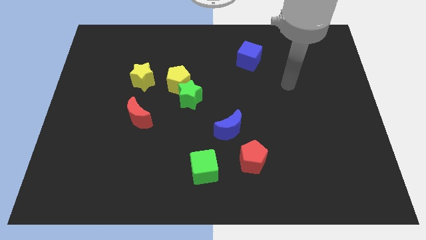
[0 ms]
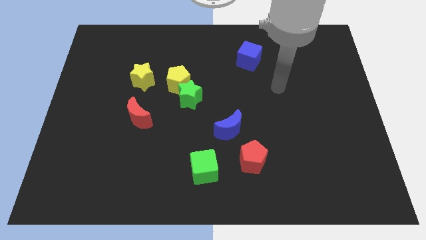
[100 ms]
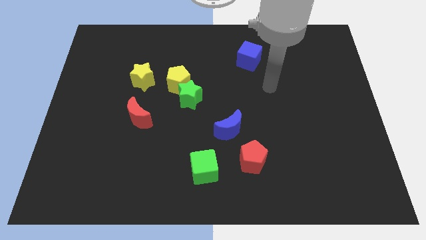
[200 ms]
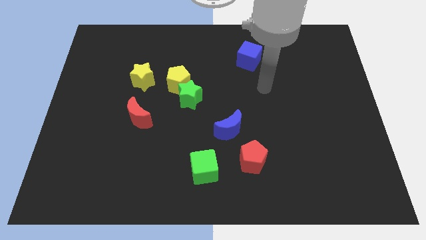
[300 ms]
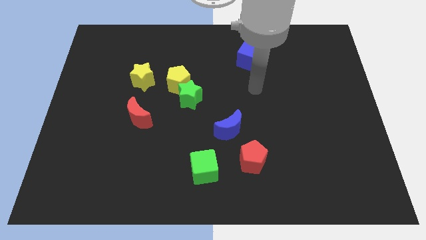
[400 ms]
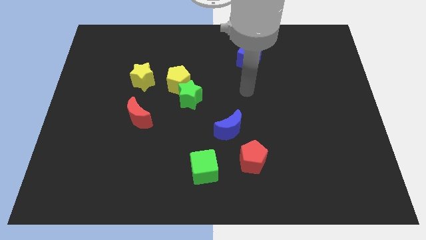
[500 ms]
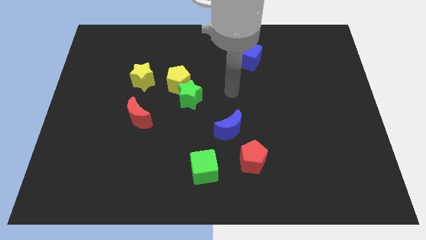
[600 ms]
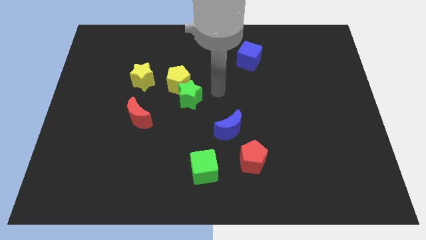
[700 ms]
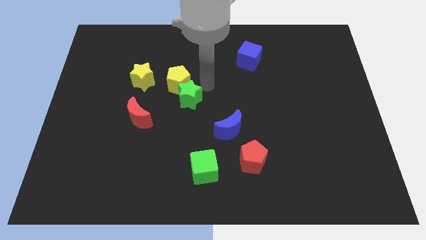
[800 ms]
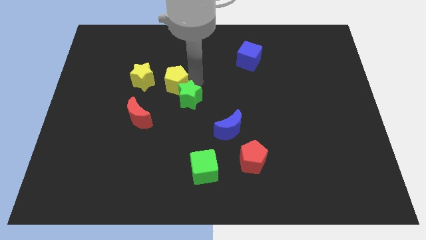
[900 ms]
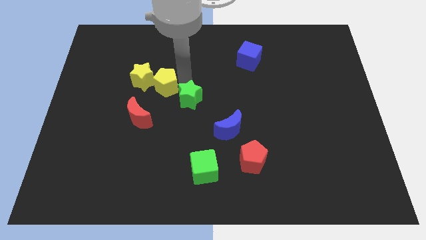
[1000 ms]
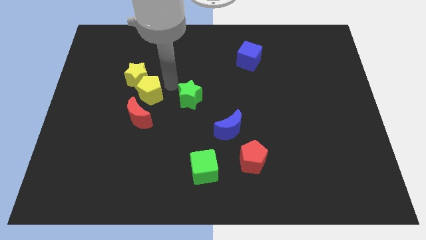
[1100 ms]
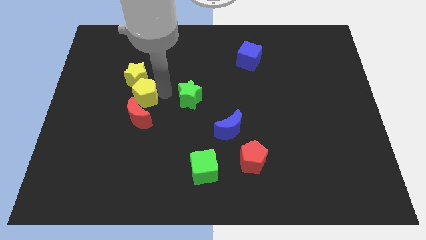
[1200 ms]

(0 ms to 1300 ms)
move the green star away from the yellow pentagon

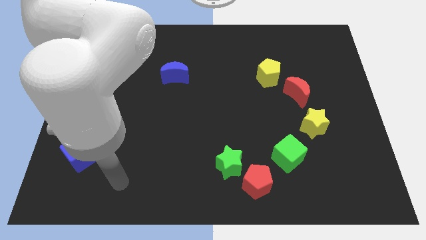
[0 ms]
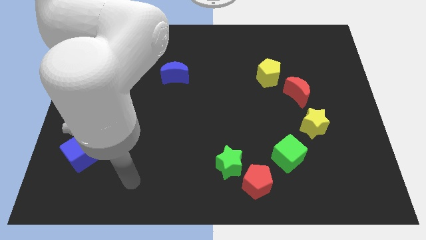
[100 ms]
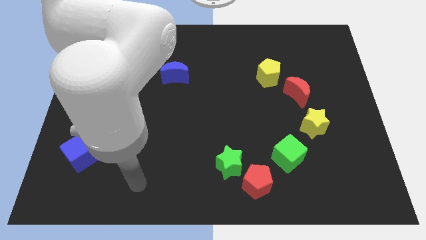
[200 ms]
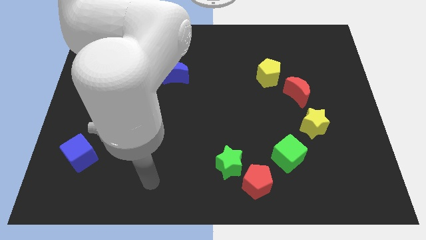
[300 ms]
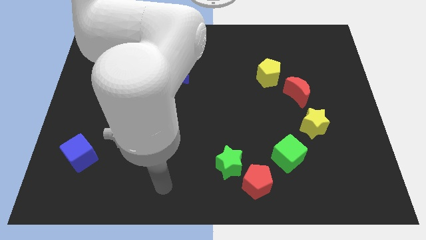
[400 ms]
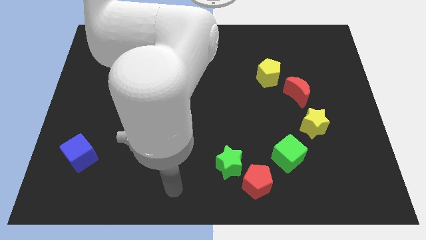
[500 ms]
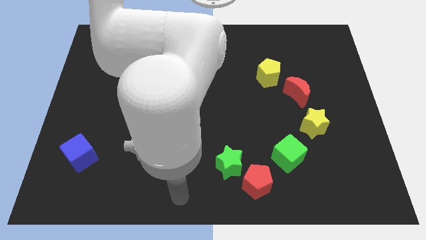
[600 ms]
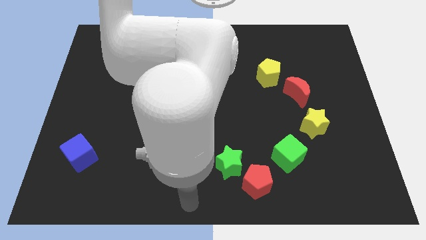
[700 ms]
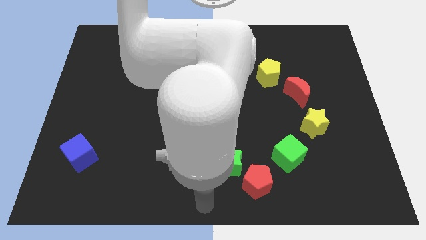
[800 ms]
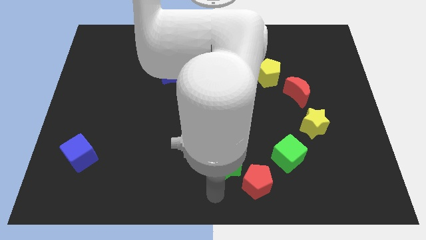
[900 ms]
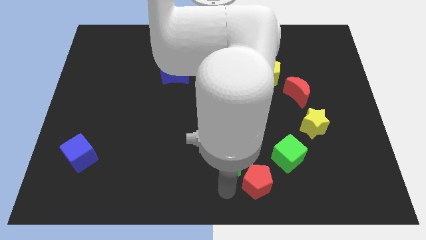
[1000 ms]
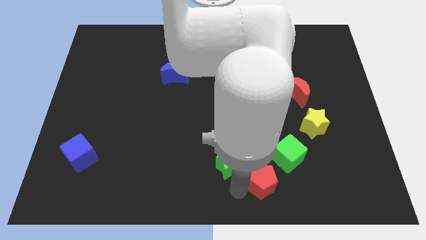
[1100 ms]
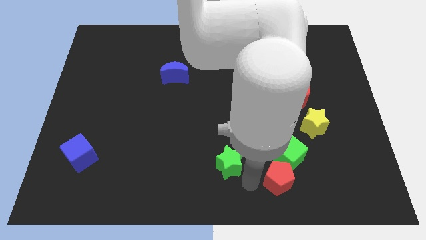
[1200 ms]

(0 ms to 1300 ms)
move the green star away from the red pentagon

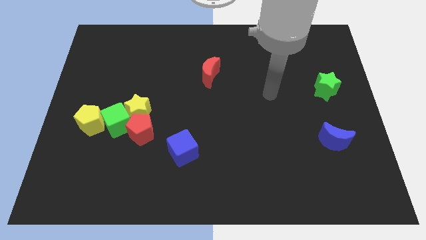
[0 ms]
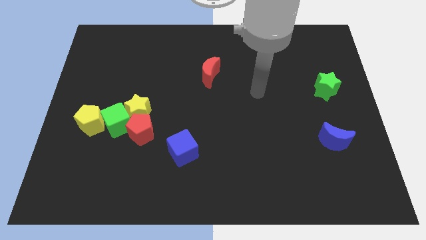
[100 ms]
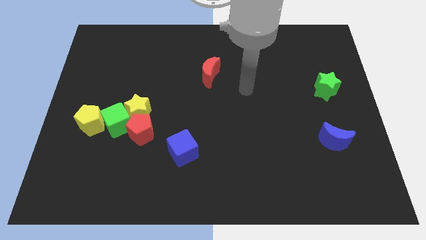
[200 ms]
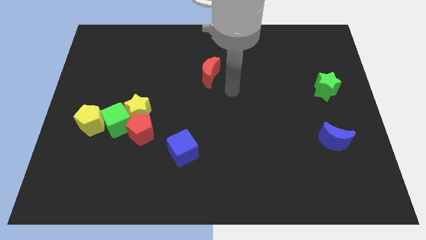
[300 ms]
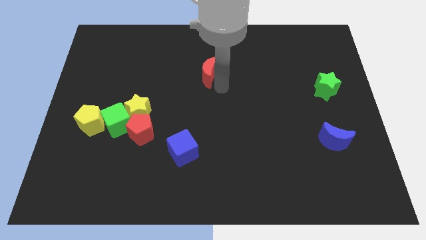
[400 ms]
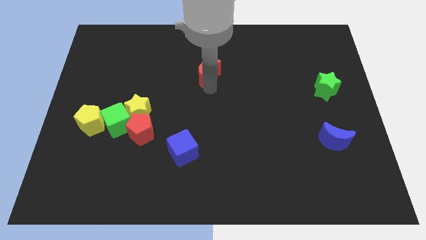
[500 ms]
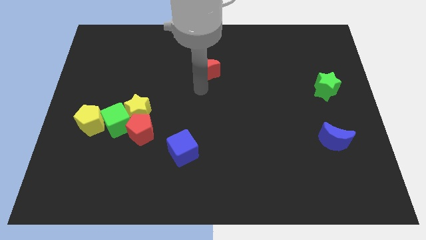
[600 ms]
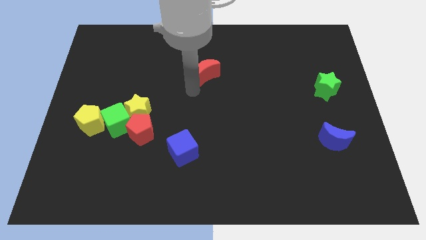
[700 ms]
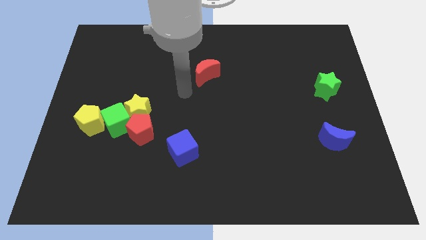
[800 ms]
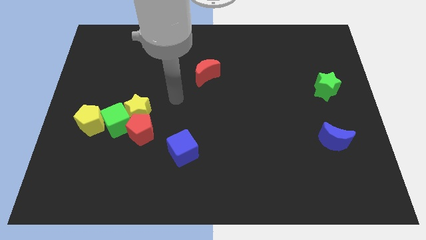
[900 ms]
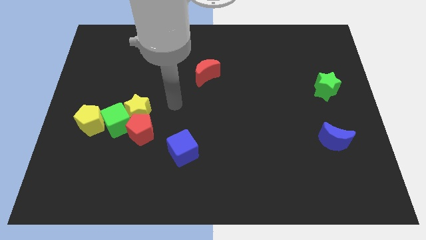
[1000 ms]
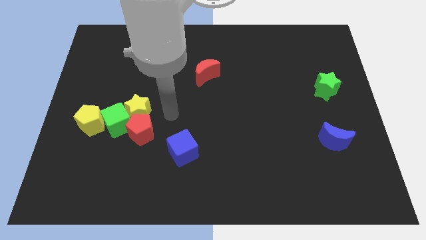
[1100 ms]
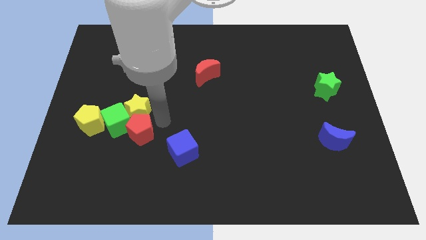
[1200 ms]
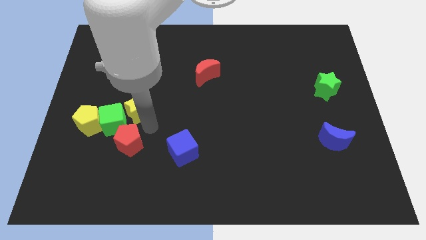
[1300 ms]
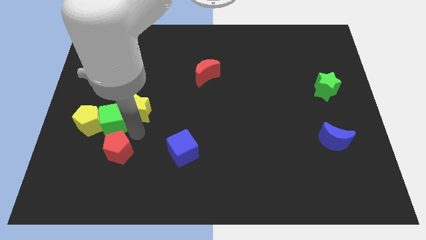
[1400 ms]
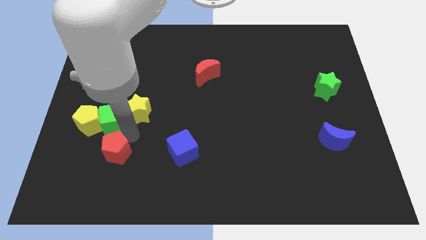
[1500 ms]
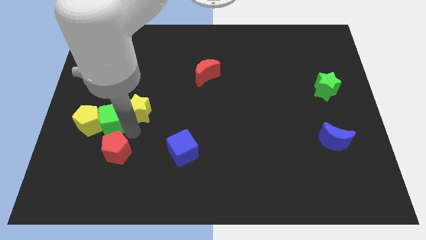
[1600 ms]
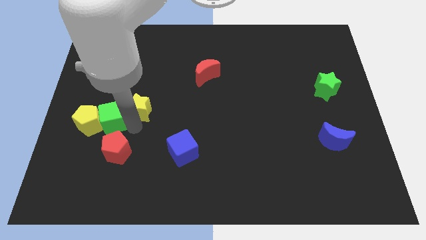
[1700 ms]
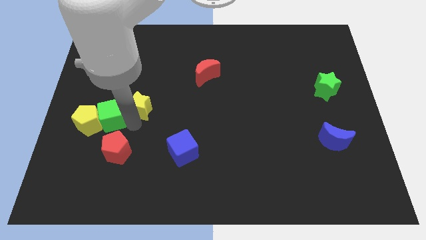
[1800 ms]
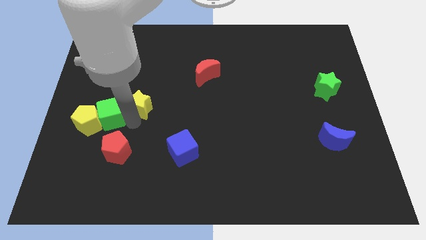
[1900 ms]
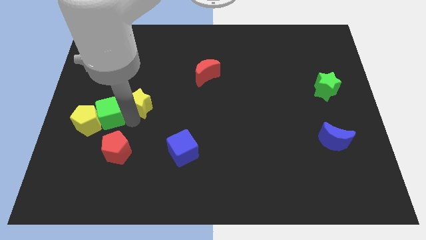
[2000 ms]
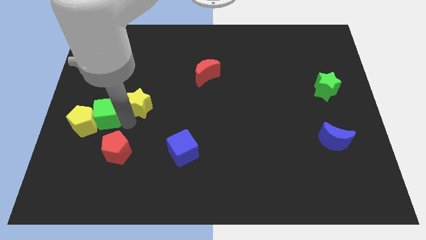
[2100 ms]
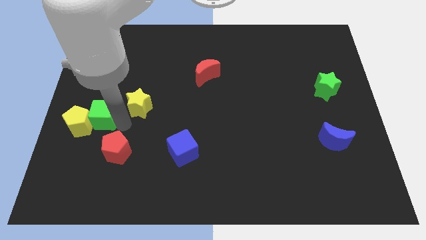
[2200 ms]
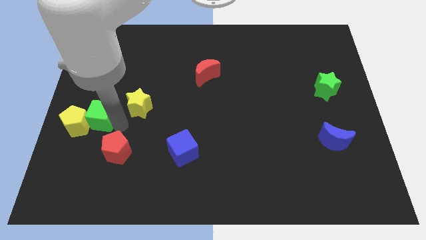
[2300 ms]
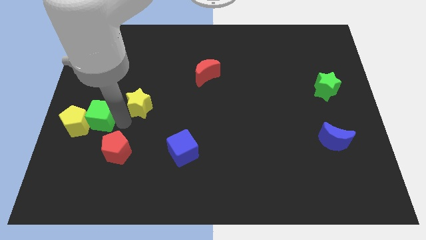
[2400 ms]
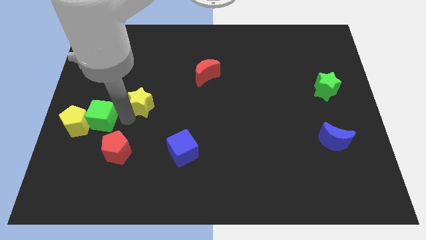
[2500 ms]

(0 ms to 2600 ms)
move the yellow star away from the green cube and red pentagon

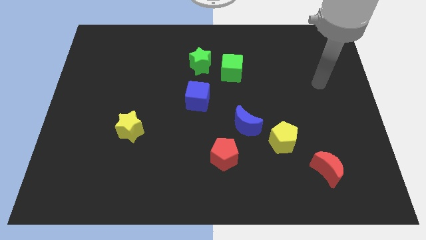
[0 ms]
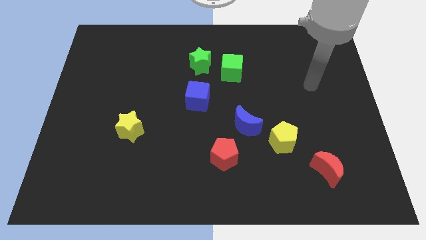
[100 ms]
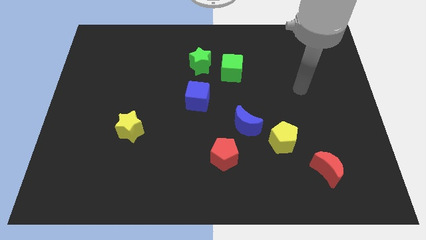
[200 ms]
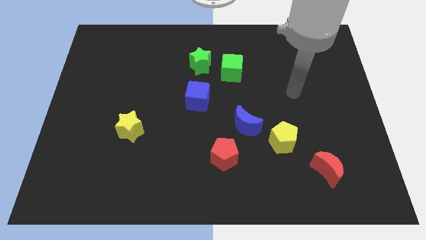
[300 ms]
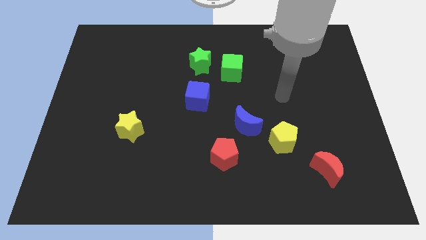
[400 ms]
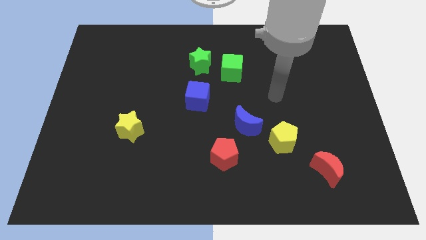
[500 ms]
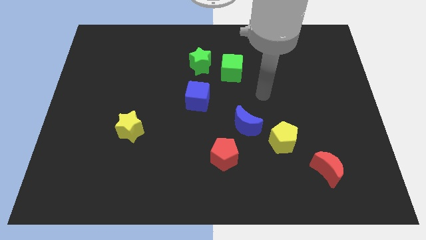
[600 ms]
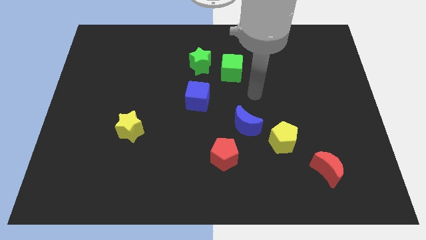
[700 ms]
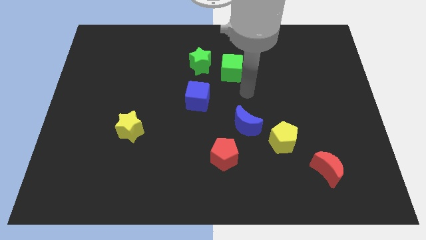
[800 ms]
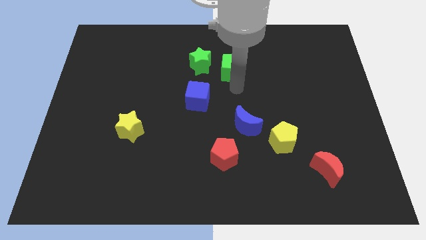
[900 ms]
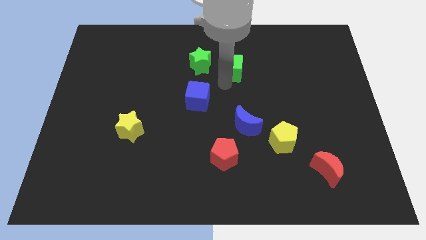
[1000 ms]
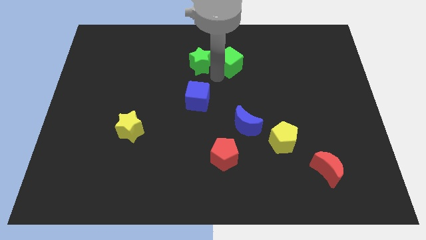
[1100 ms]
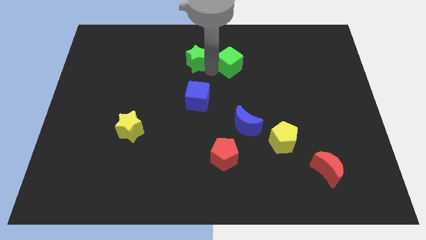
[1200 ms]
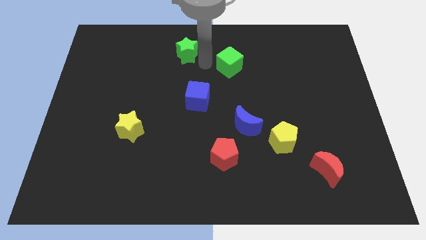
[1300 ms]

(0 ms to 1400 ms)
pull the green cube apart from the green star

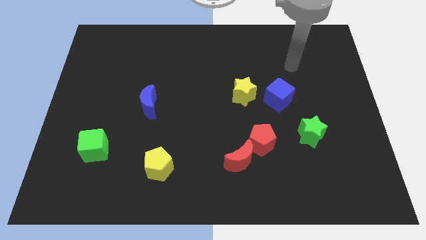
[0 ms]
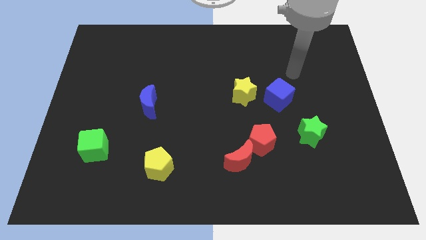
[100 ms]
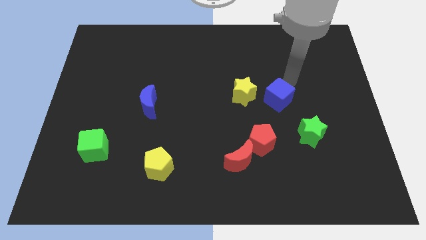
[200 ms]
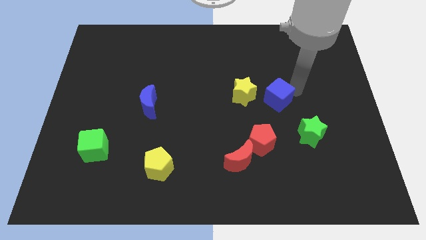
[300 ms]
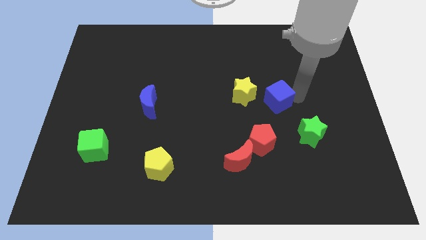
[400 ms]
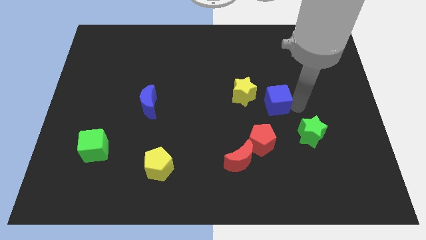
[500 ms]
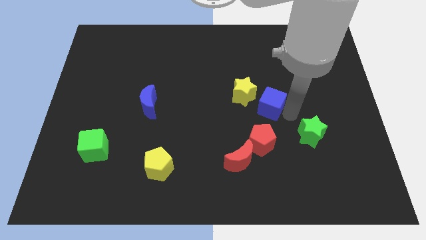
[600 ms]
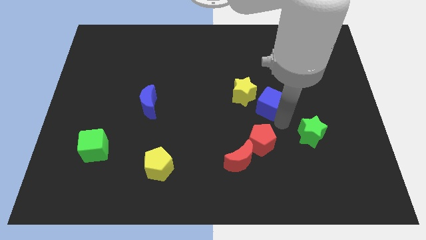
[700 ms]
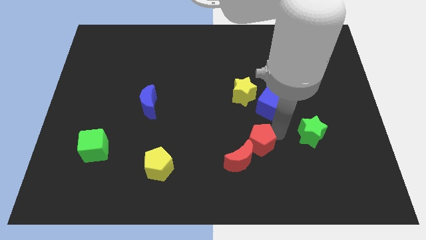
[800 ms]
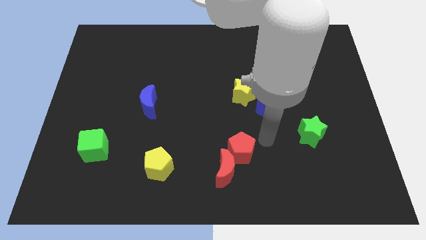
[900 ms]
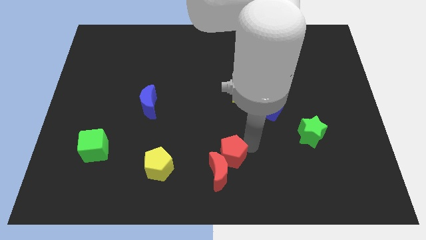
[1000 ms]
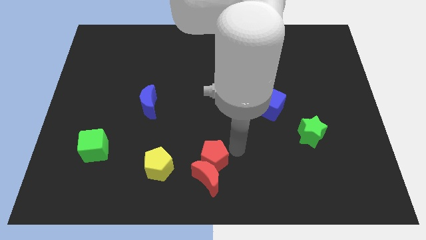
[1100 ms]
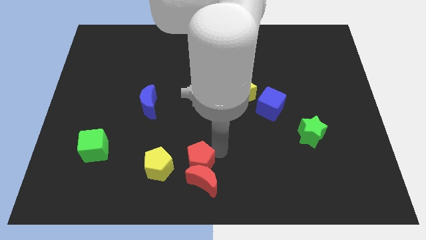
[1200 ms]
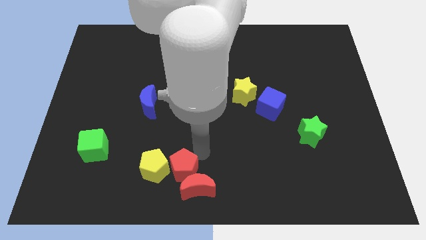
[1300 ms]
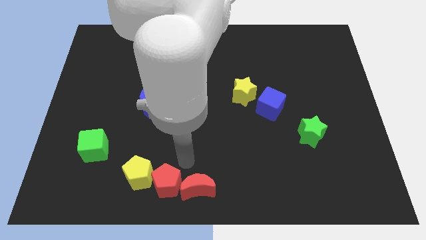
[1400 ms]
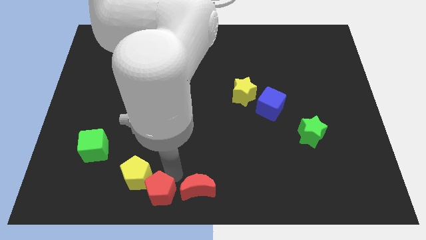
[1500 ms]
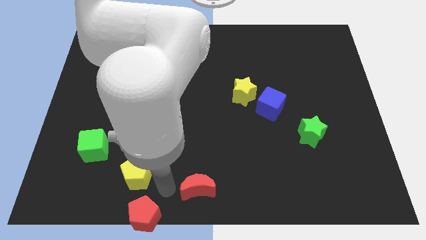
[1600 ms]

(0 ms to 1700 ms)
move the red moon away from the red pentagon

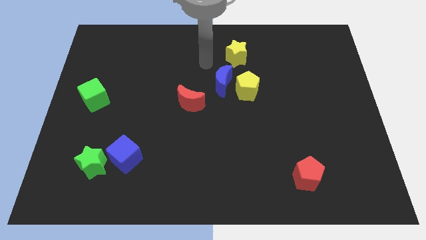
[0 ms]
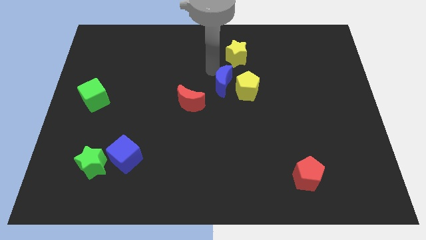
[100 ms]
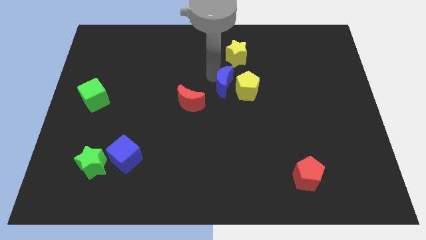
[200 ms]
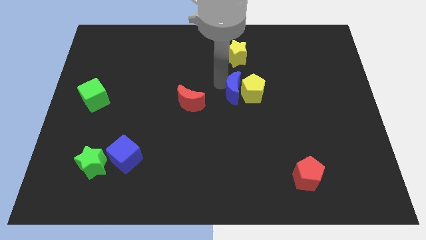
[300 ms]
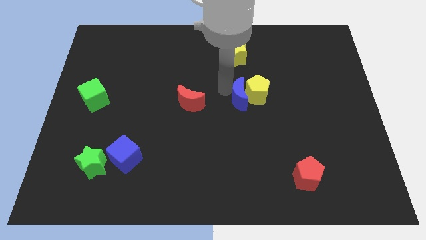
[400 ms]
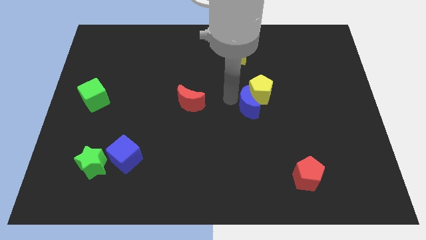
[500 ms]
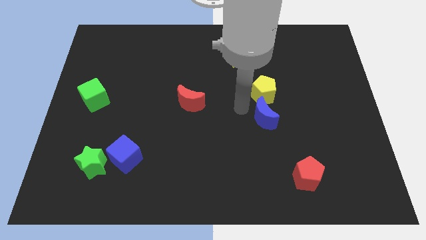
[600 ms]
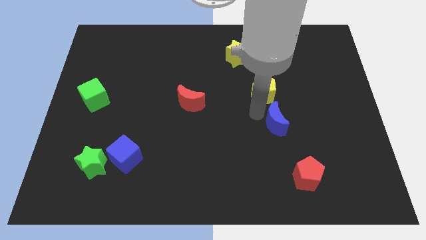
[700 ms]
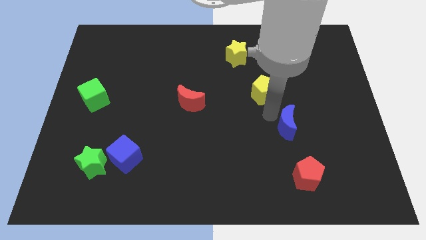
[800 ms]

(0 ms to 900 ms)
separate the yellow pentagon from the blue moon

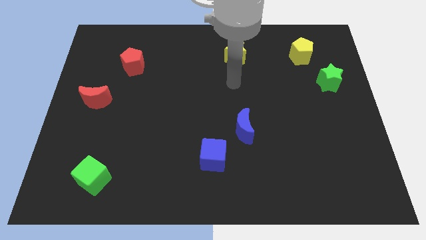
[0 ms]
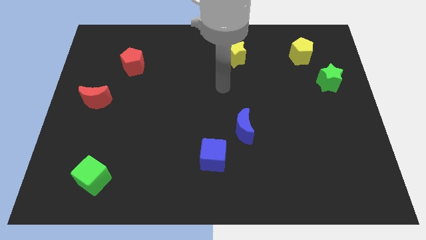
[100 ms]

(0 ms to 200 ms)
move the blue moon away from the blue cube
